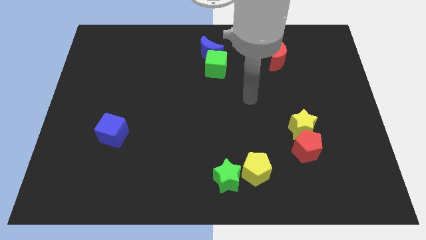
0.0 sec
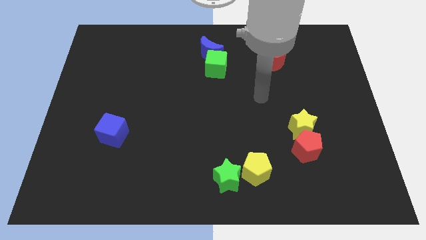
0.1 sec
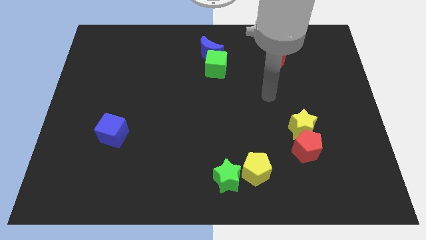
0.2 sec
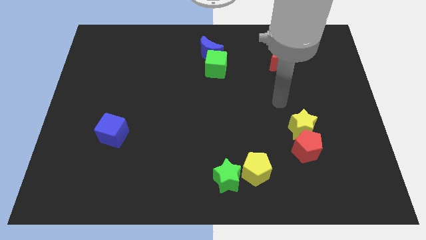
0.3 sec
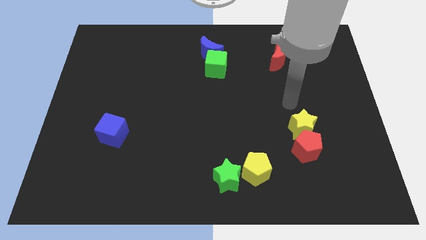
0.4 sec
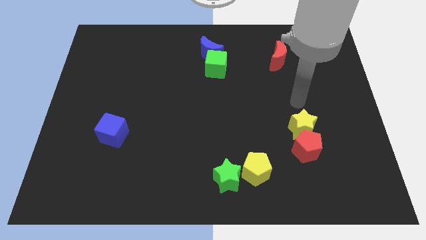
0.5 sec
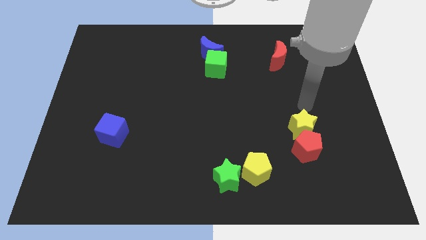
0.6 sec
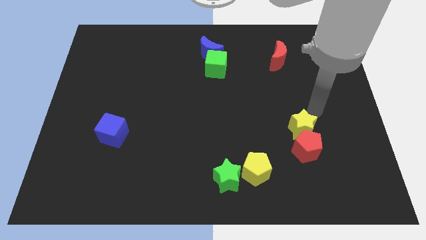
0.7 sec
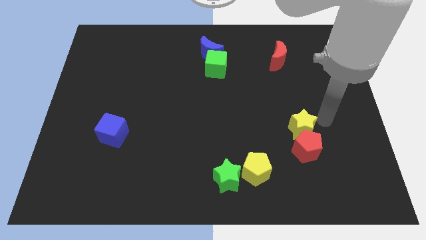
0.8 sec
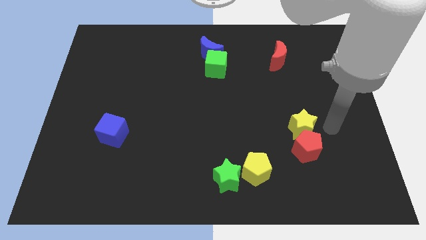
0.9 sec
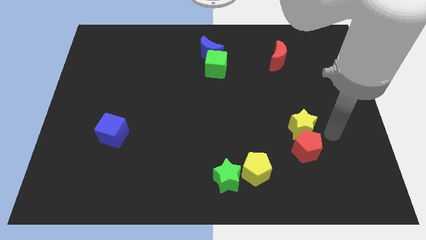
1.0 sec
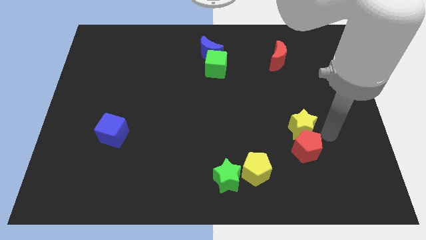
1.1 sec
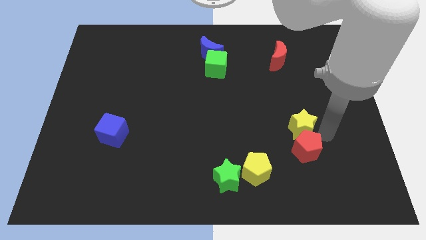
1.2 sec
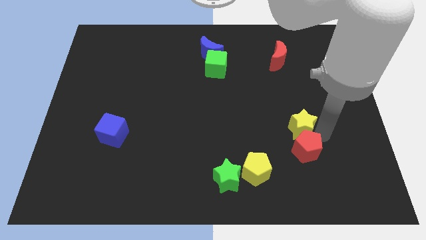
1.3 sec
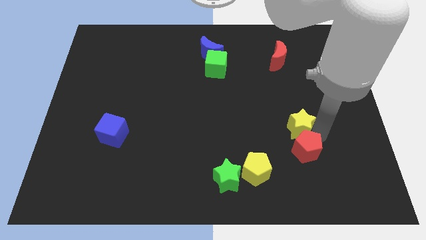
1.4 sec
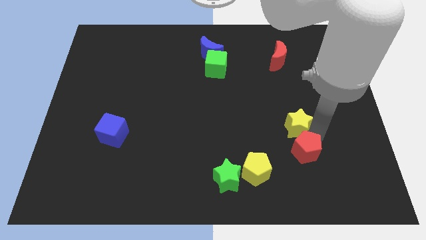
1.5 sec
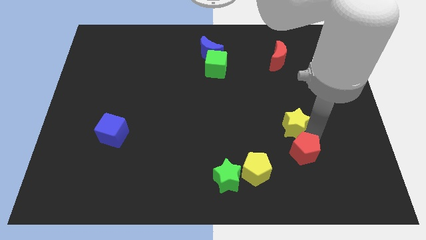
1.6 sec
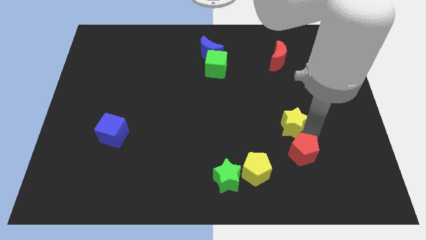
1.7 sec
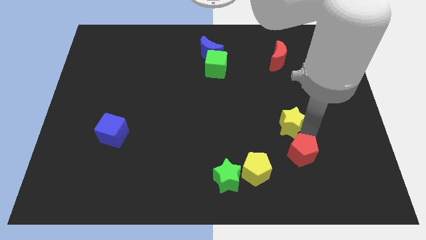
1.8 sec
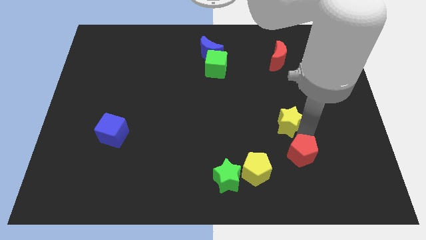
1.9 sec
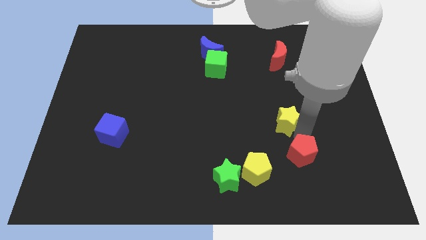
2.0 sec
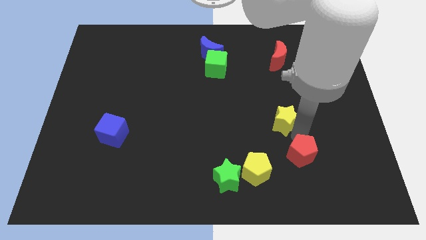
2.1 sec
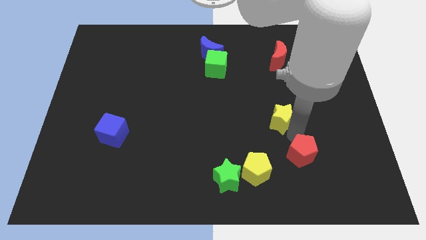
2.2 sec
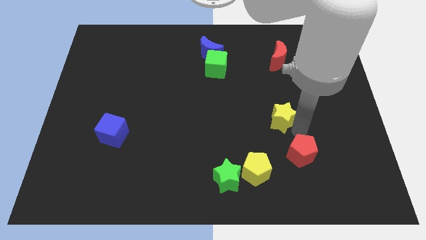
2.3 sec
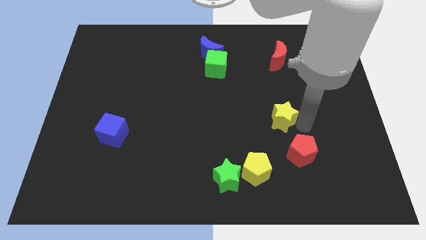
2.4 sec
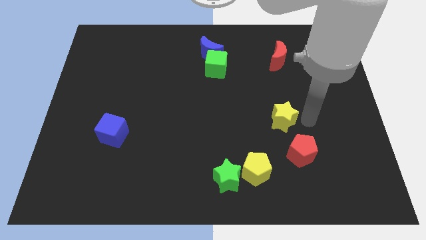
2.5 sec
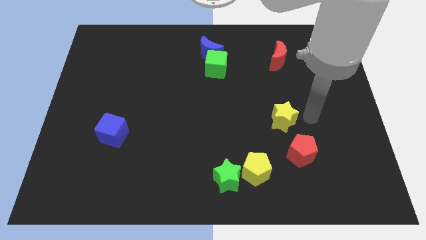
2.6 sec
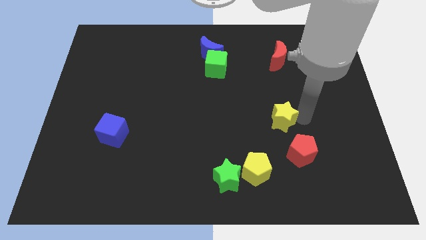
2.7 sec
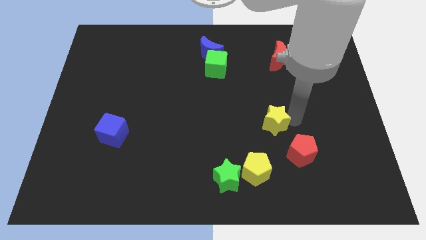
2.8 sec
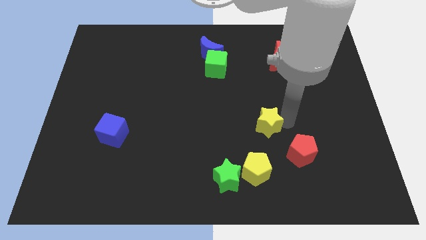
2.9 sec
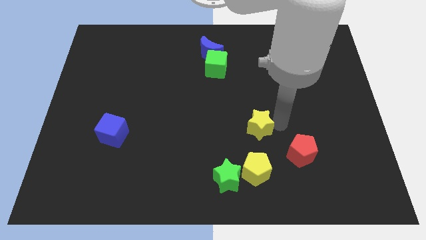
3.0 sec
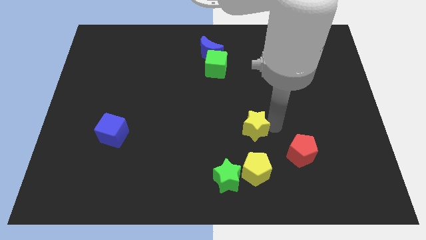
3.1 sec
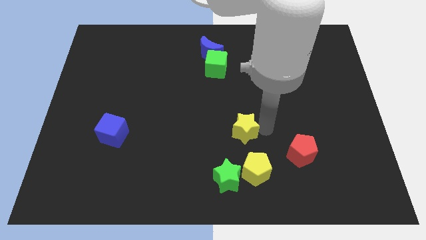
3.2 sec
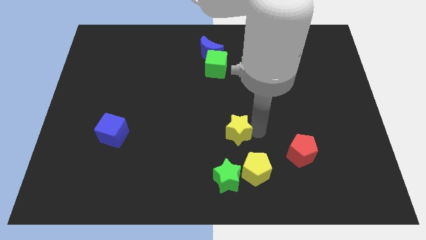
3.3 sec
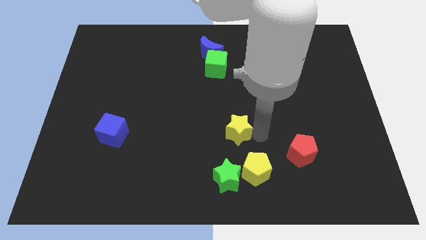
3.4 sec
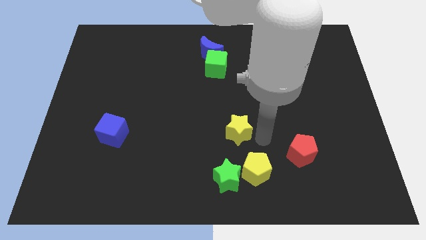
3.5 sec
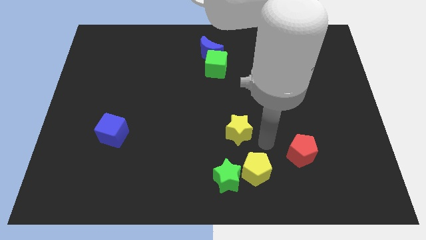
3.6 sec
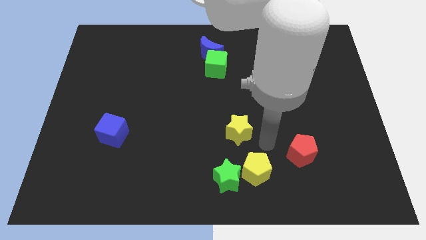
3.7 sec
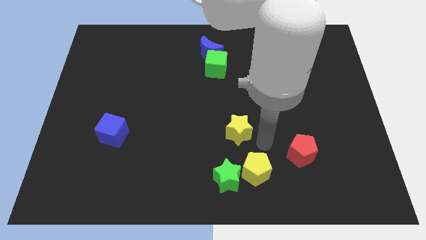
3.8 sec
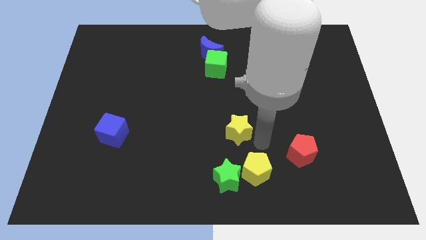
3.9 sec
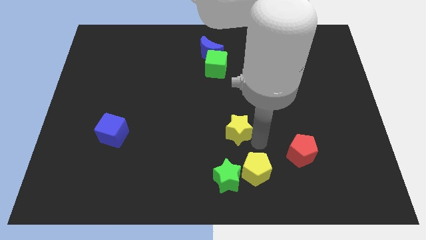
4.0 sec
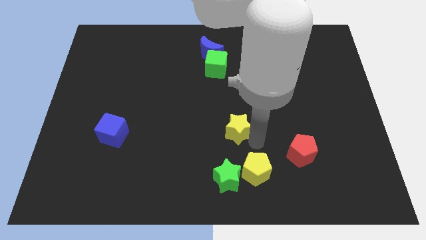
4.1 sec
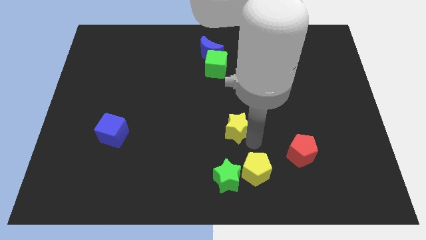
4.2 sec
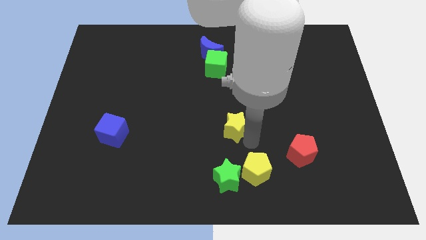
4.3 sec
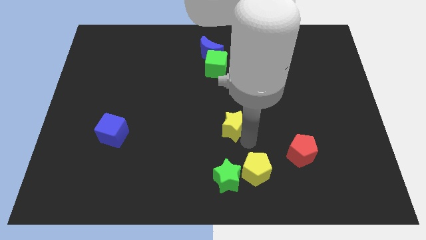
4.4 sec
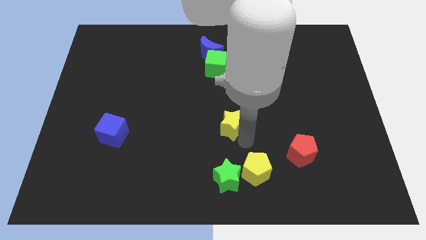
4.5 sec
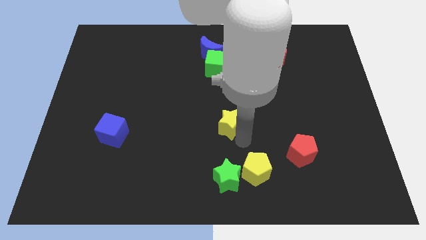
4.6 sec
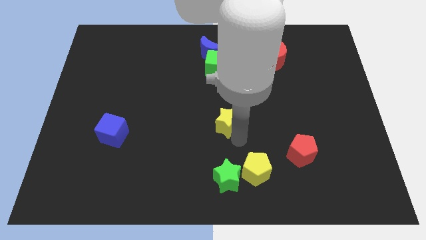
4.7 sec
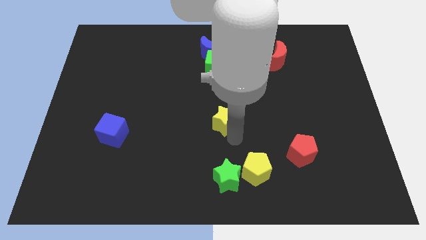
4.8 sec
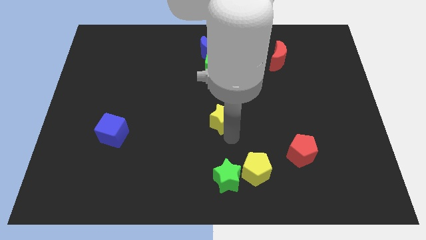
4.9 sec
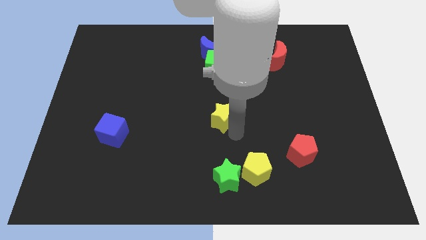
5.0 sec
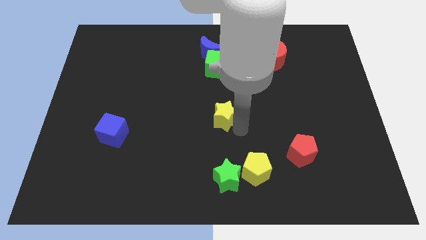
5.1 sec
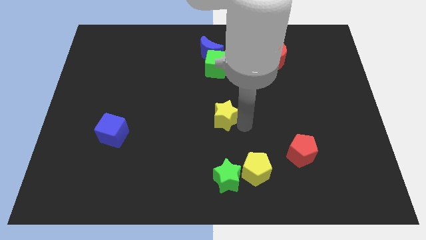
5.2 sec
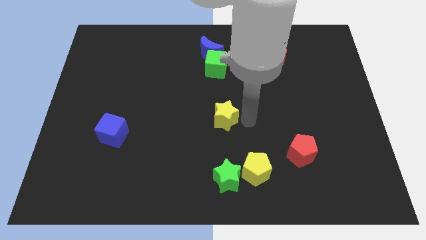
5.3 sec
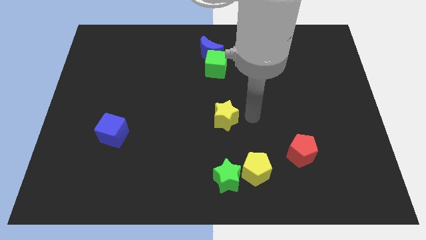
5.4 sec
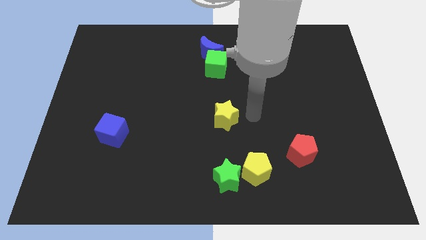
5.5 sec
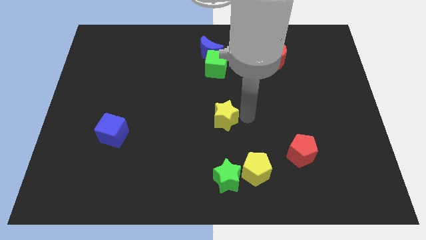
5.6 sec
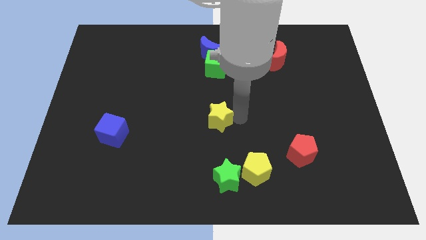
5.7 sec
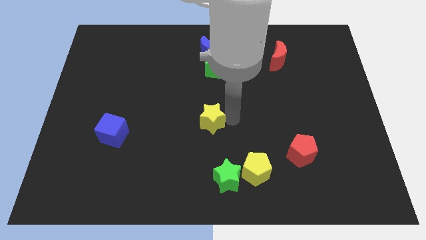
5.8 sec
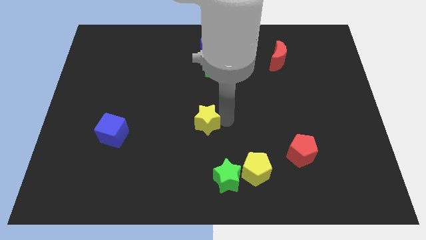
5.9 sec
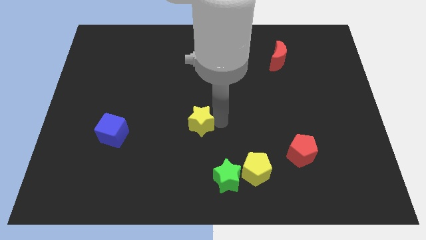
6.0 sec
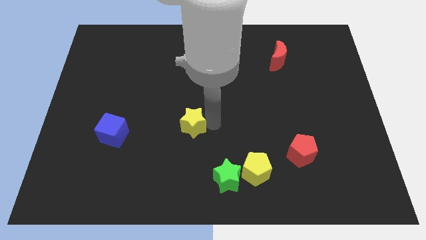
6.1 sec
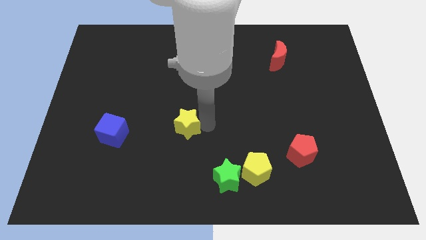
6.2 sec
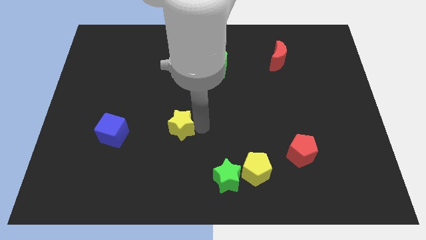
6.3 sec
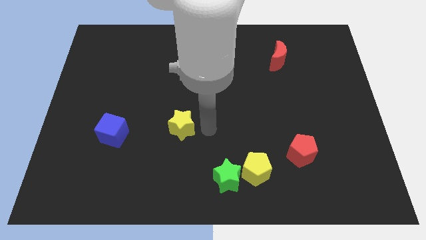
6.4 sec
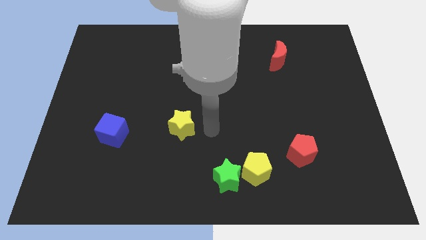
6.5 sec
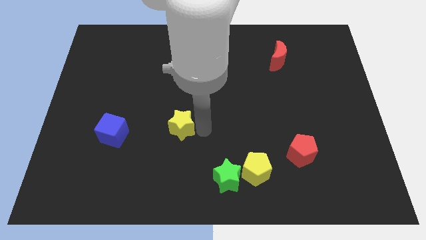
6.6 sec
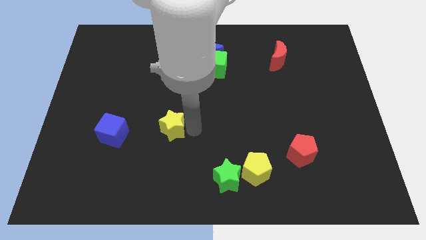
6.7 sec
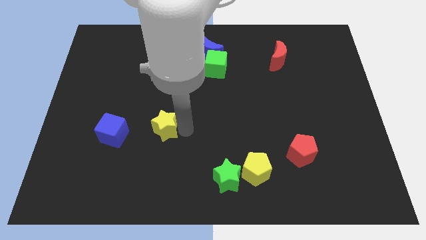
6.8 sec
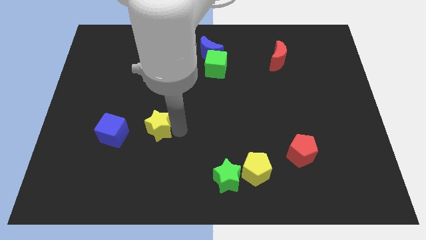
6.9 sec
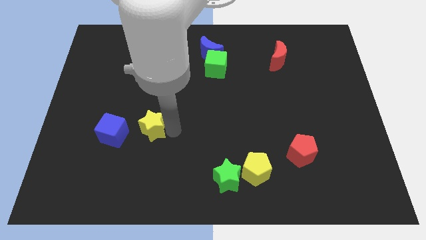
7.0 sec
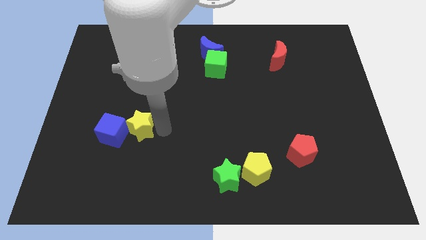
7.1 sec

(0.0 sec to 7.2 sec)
push the yellow star close to the blue cube
